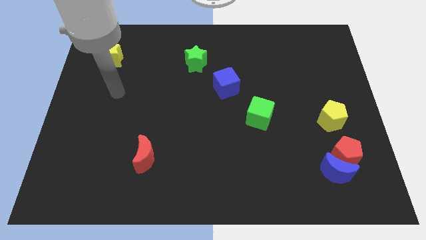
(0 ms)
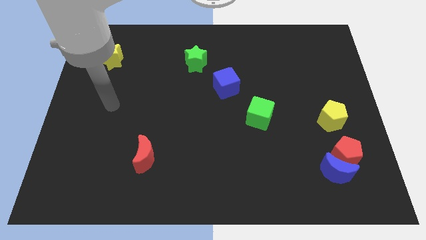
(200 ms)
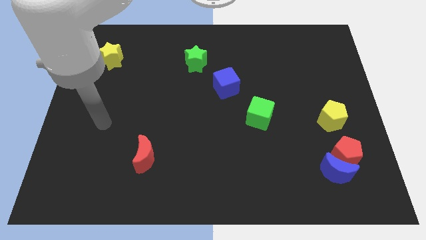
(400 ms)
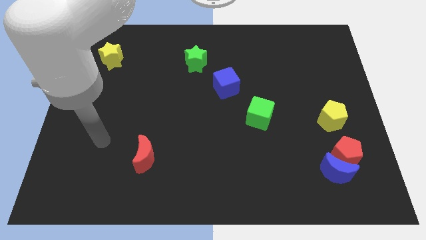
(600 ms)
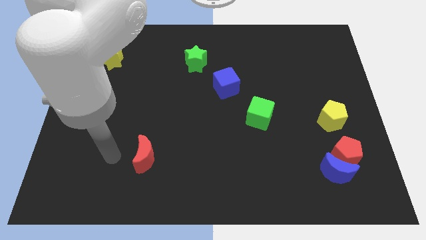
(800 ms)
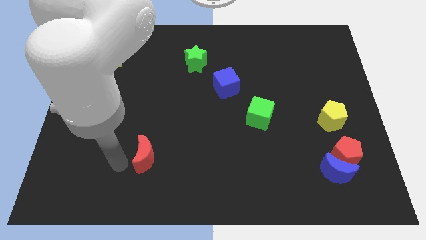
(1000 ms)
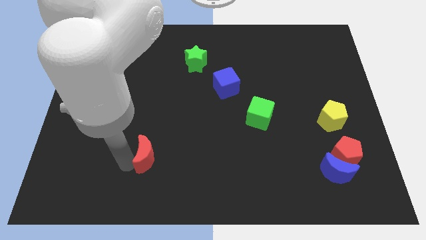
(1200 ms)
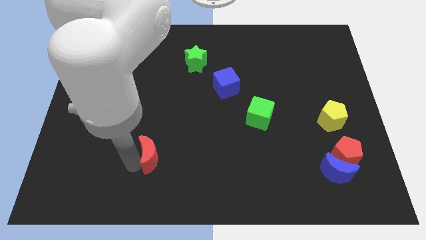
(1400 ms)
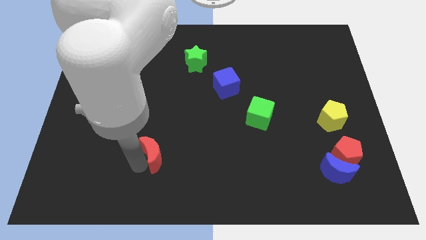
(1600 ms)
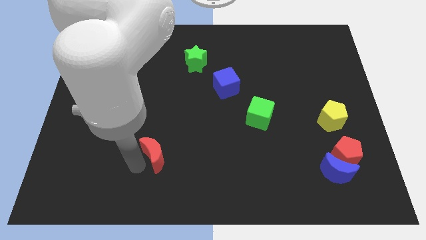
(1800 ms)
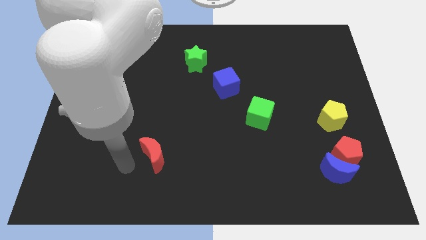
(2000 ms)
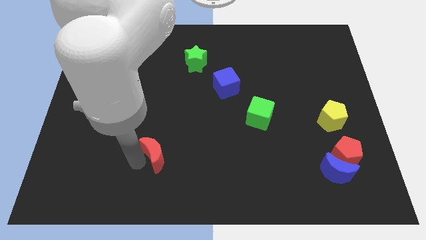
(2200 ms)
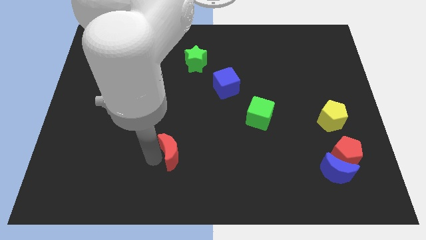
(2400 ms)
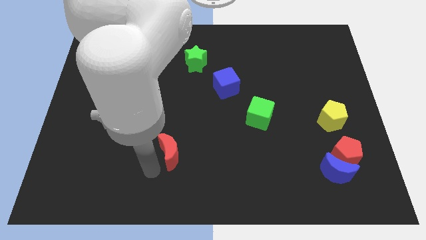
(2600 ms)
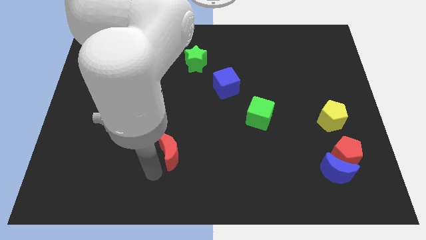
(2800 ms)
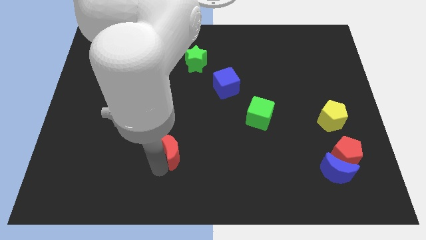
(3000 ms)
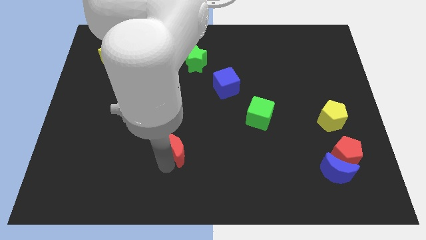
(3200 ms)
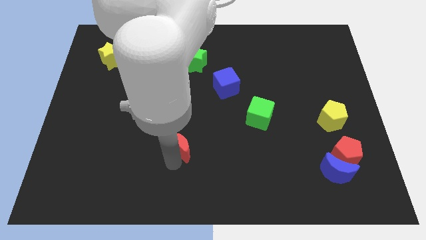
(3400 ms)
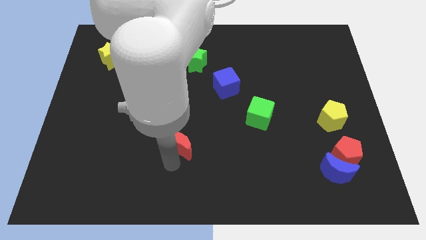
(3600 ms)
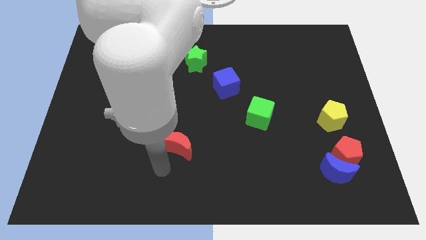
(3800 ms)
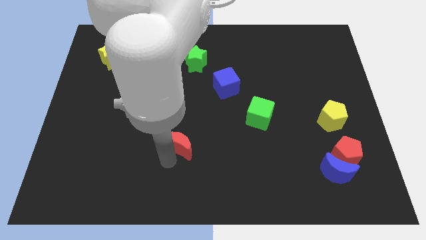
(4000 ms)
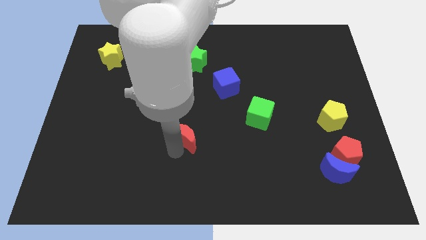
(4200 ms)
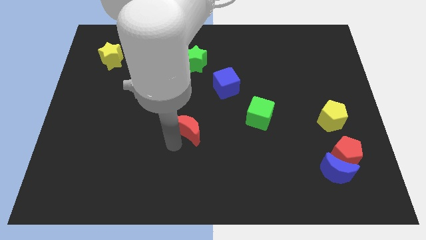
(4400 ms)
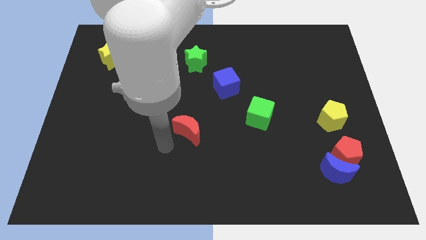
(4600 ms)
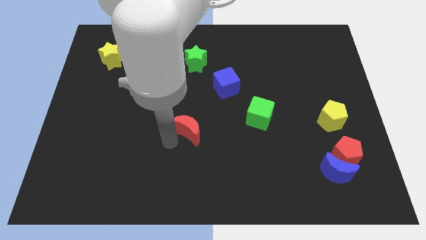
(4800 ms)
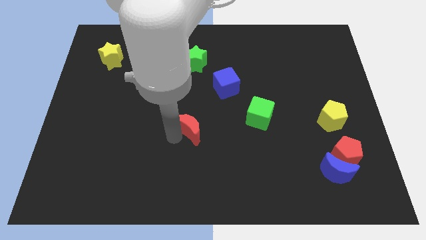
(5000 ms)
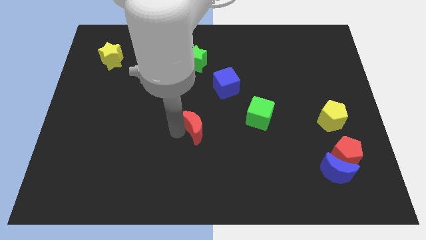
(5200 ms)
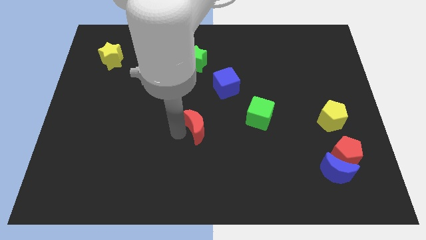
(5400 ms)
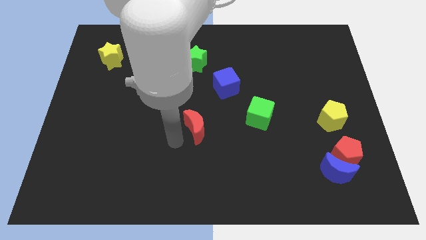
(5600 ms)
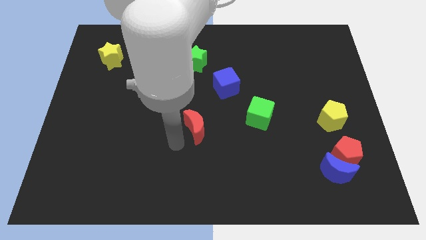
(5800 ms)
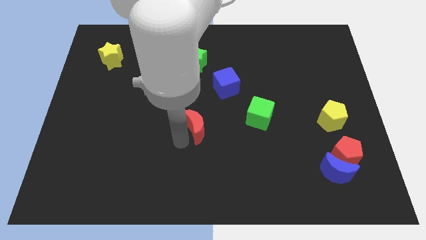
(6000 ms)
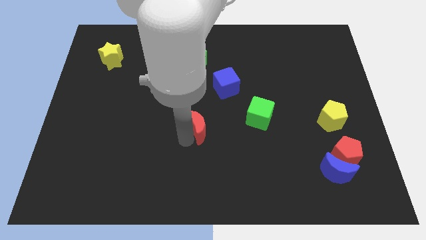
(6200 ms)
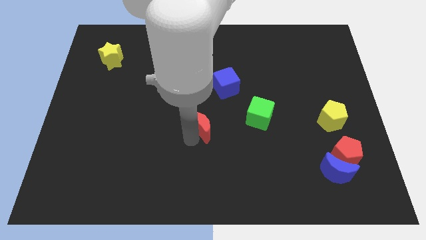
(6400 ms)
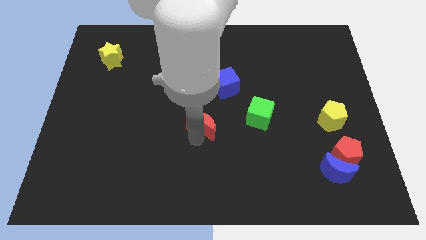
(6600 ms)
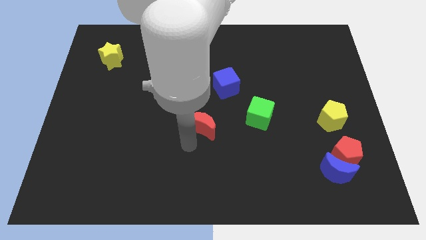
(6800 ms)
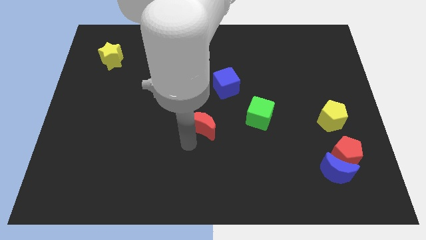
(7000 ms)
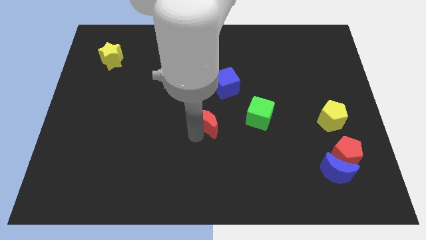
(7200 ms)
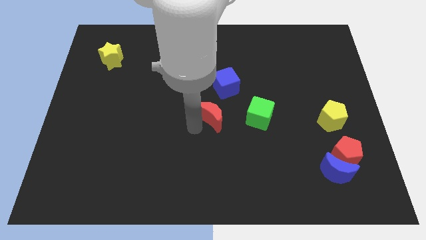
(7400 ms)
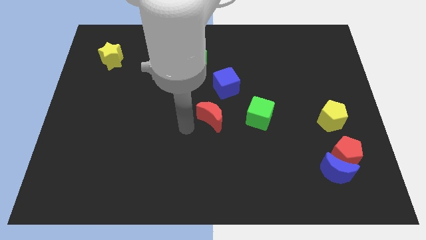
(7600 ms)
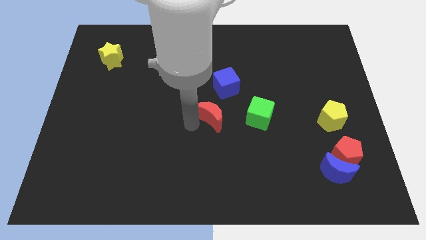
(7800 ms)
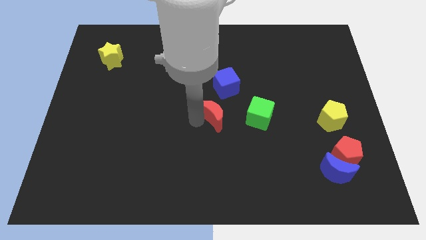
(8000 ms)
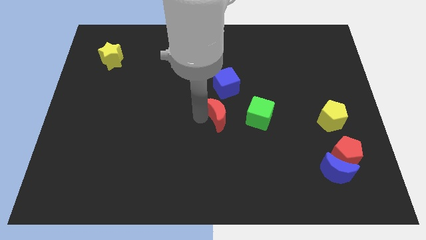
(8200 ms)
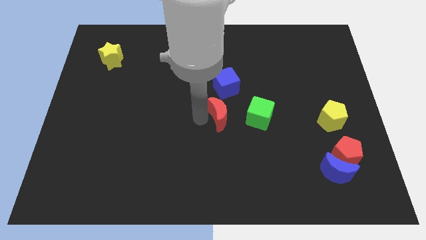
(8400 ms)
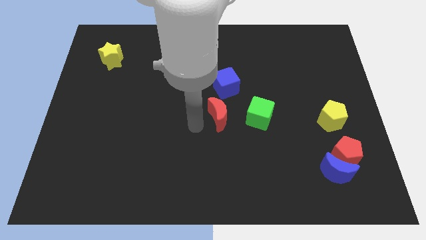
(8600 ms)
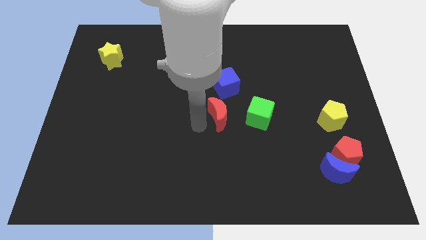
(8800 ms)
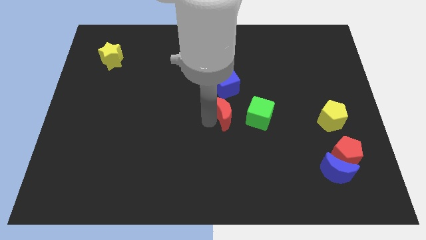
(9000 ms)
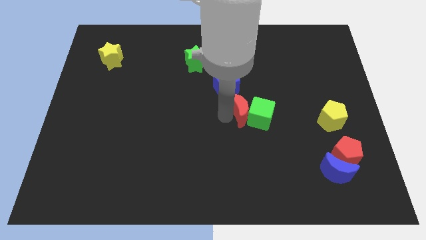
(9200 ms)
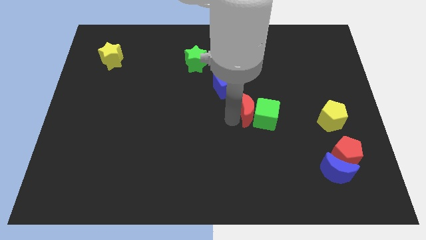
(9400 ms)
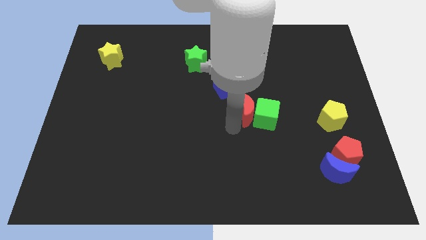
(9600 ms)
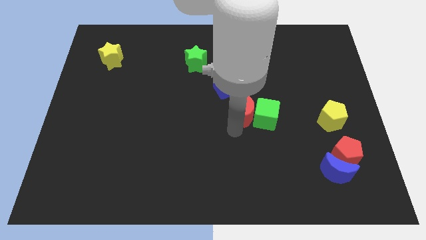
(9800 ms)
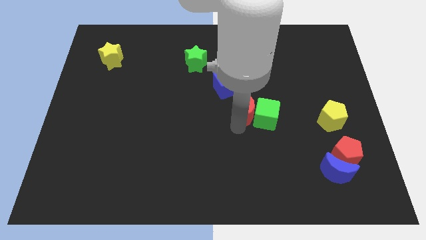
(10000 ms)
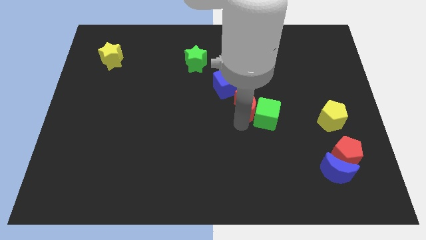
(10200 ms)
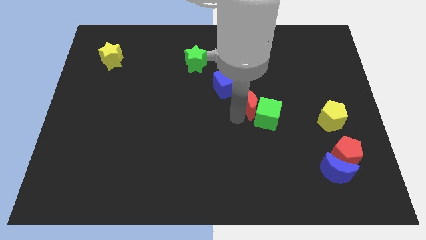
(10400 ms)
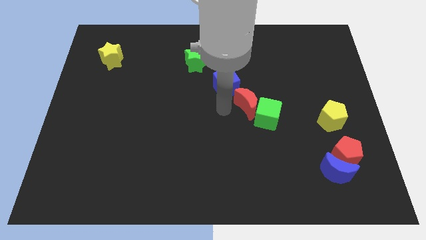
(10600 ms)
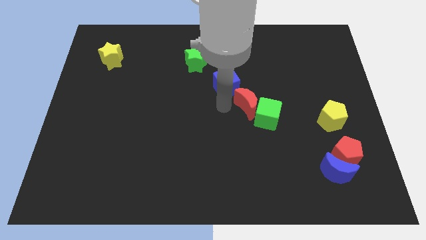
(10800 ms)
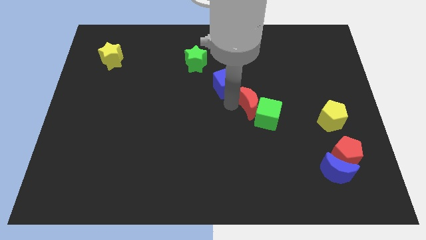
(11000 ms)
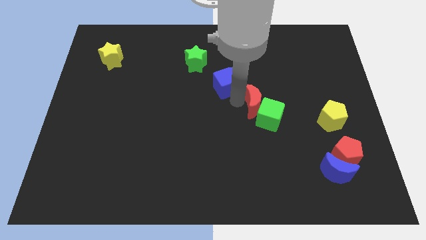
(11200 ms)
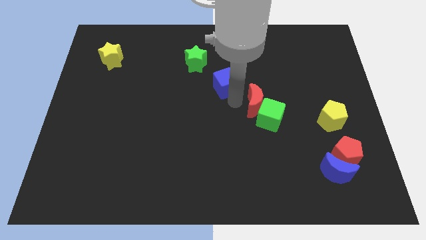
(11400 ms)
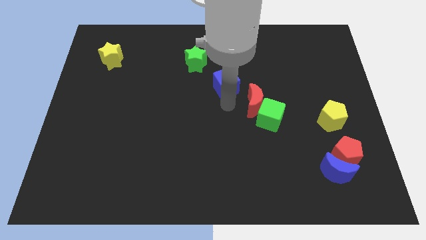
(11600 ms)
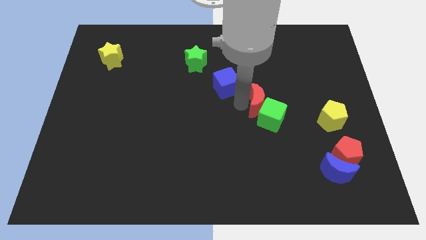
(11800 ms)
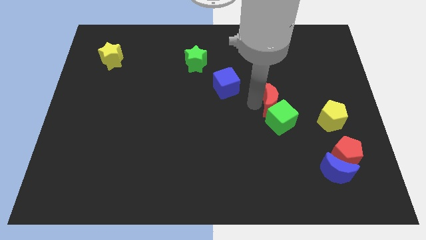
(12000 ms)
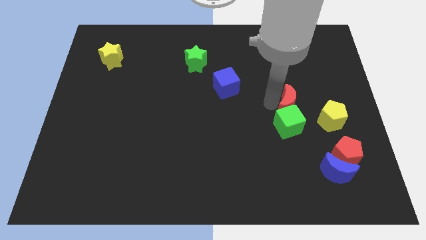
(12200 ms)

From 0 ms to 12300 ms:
slide the red moon to the top left side of the yellow pentagon
